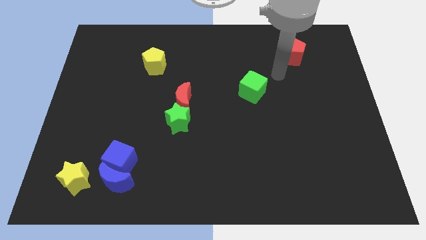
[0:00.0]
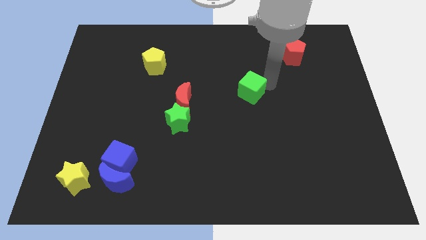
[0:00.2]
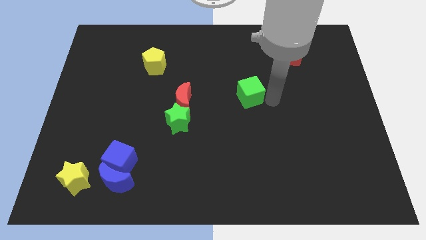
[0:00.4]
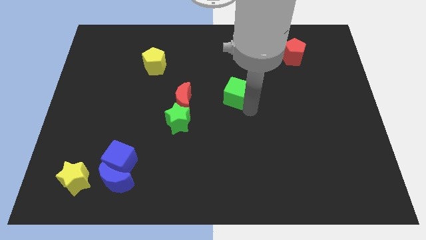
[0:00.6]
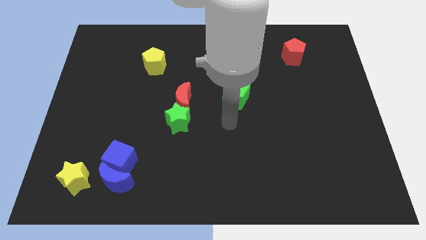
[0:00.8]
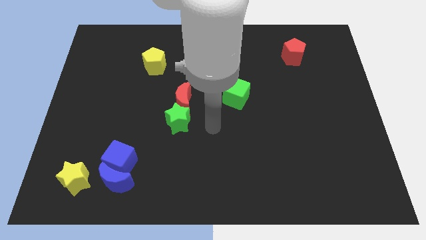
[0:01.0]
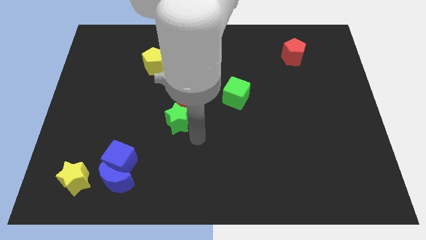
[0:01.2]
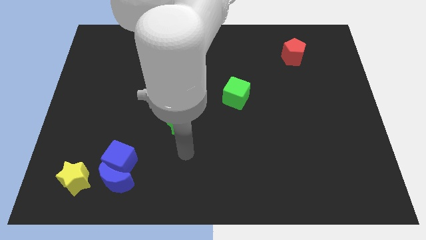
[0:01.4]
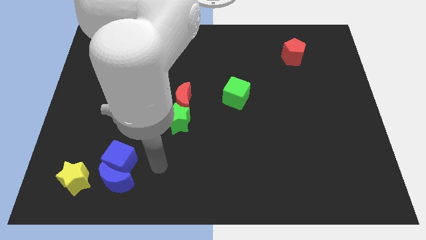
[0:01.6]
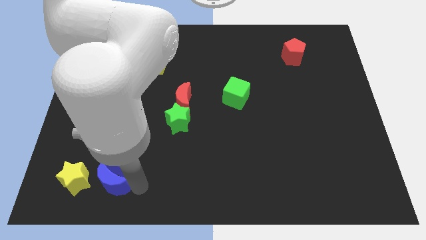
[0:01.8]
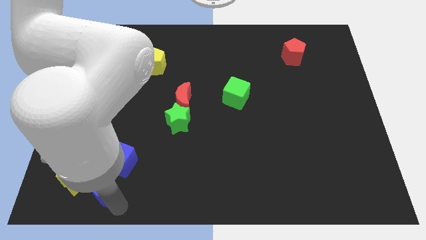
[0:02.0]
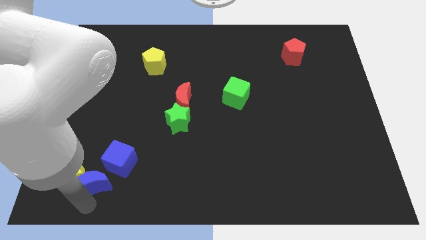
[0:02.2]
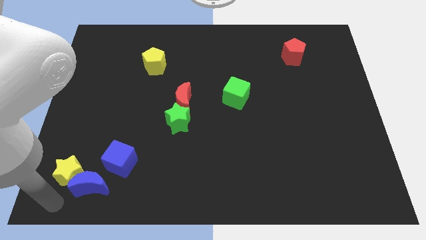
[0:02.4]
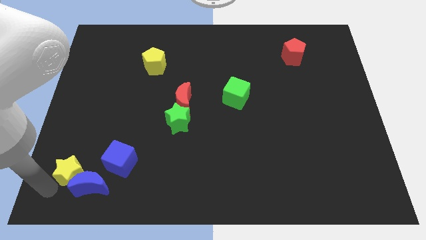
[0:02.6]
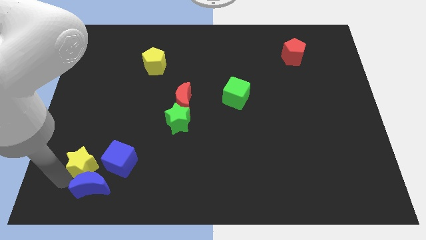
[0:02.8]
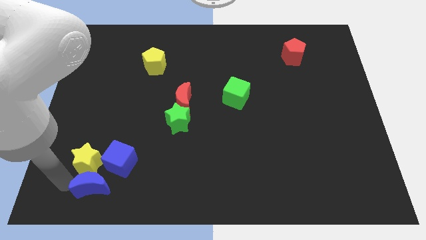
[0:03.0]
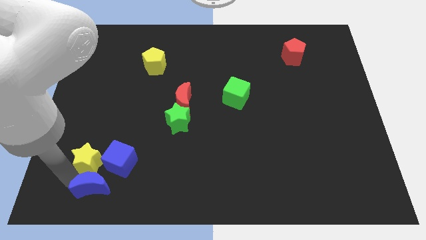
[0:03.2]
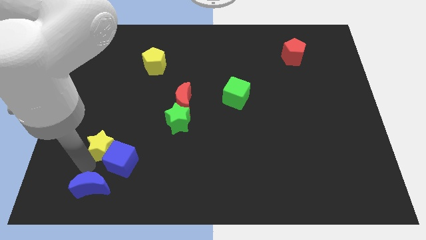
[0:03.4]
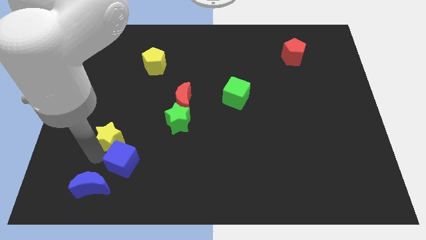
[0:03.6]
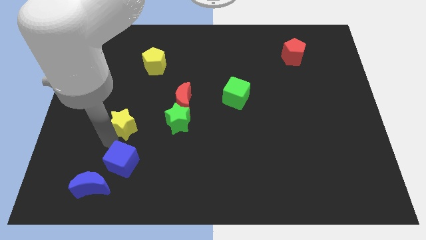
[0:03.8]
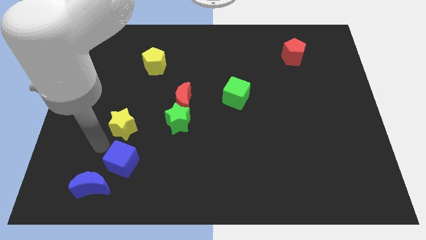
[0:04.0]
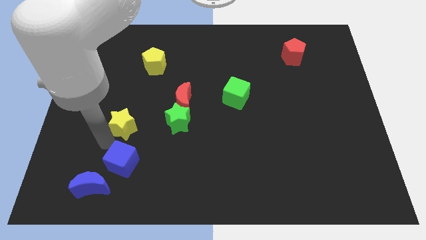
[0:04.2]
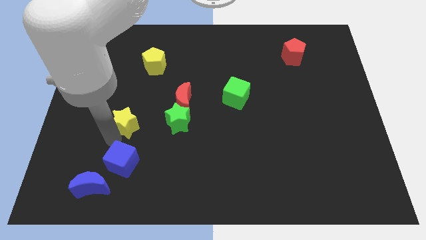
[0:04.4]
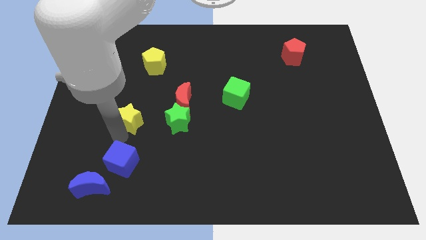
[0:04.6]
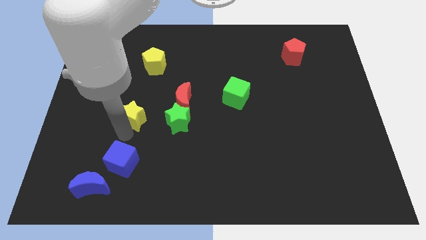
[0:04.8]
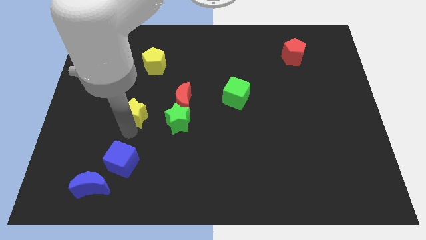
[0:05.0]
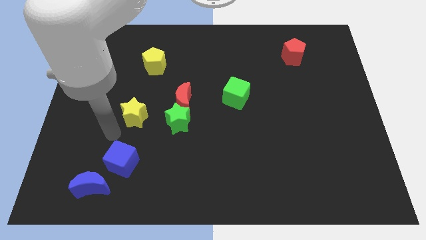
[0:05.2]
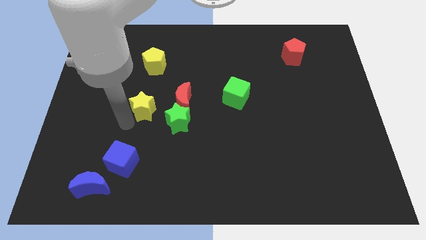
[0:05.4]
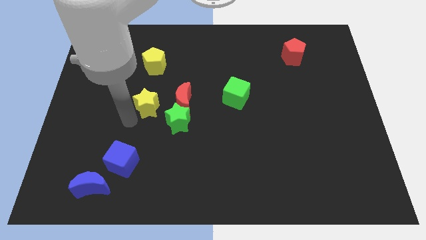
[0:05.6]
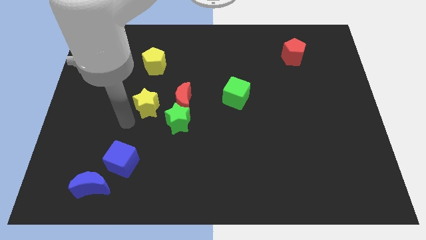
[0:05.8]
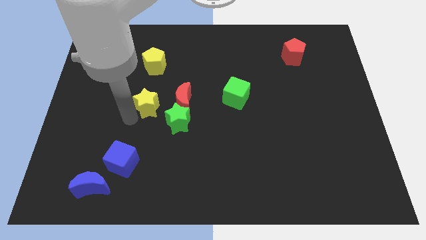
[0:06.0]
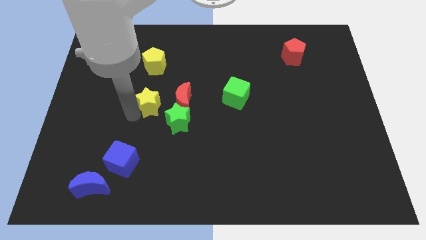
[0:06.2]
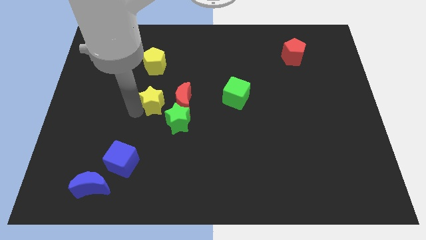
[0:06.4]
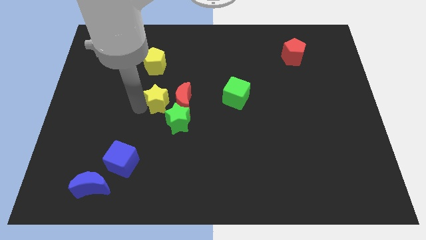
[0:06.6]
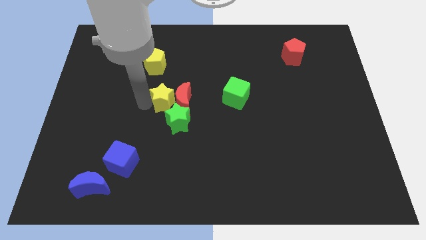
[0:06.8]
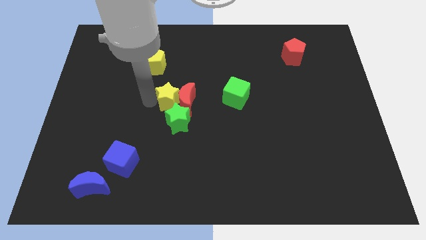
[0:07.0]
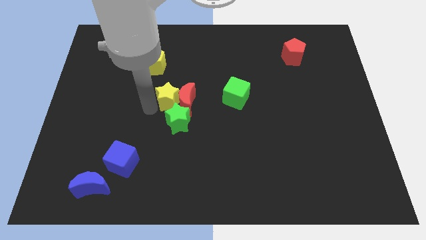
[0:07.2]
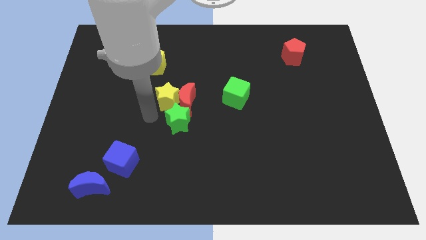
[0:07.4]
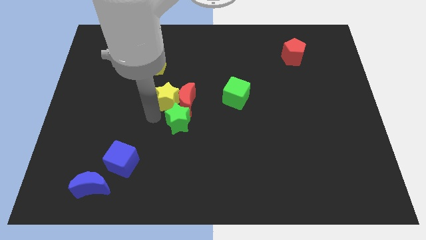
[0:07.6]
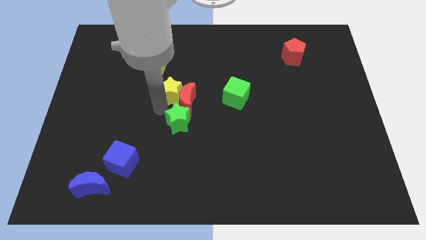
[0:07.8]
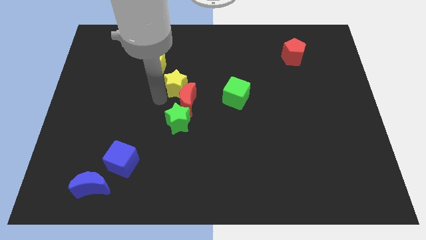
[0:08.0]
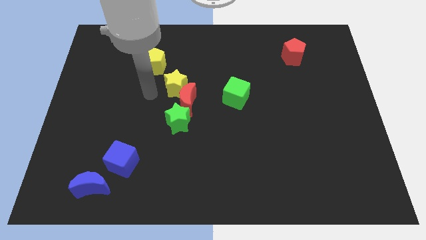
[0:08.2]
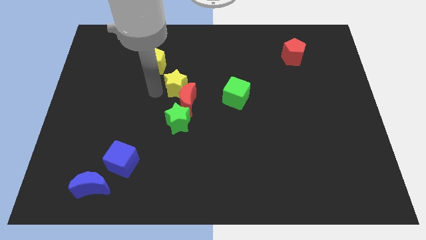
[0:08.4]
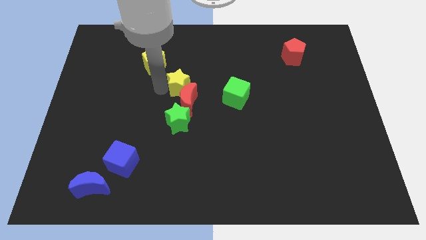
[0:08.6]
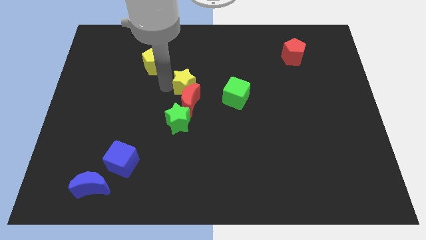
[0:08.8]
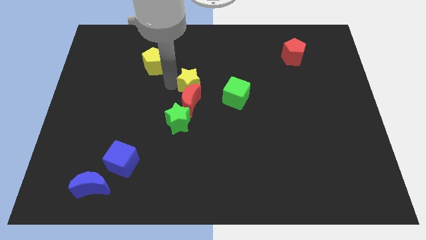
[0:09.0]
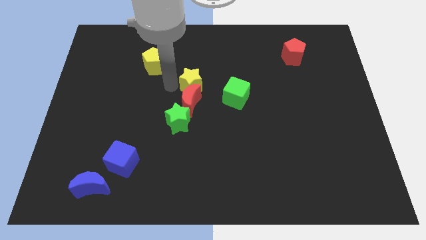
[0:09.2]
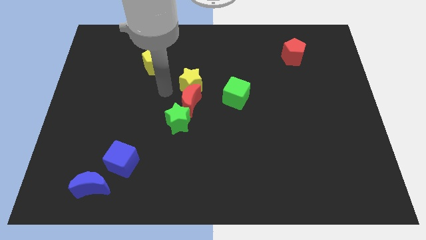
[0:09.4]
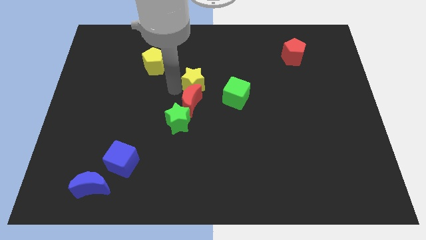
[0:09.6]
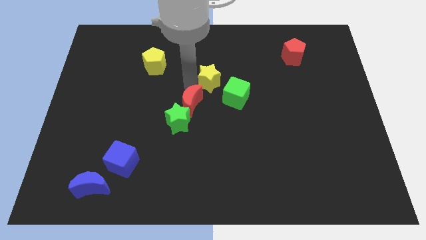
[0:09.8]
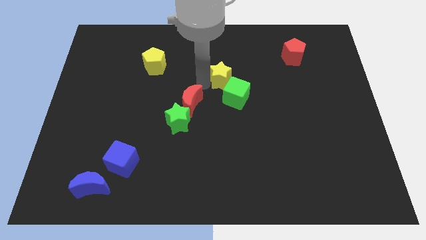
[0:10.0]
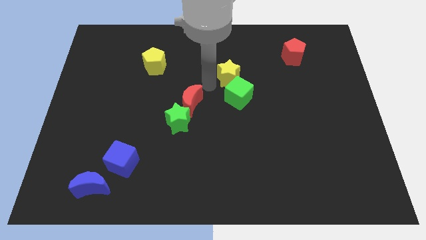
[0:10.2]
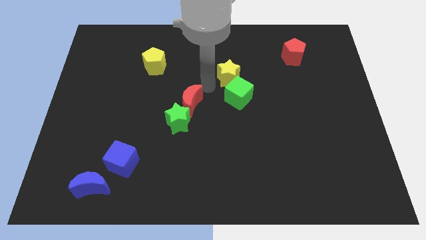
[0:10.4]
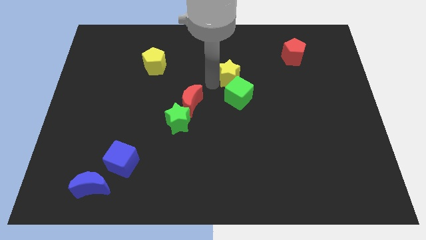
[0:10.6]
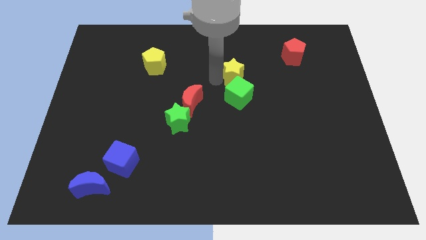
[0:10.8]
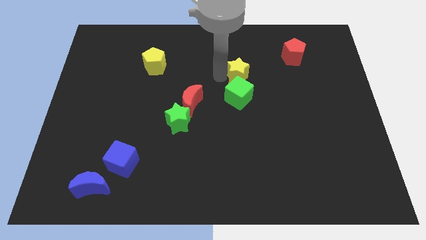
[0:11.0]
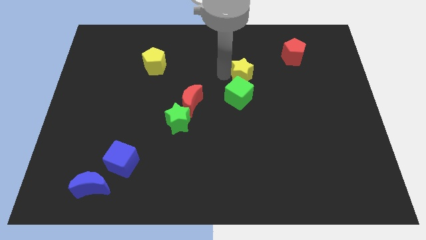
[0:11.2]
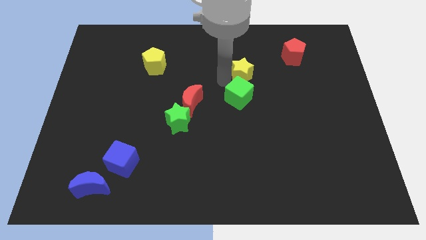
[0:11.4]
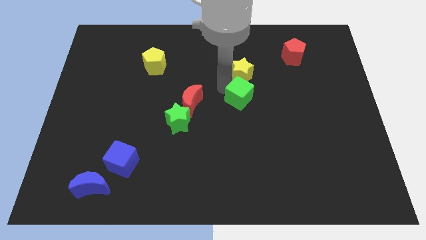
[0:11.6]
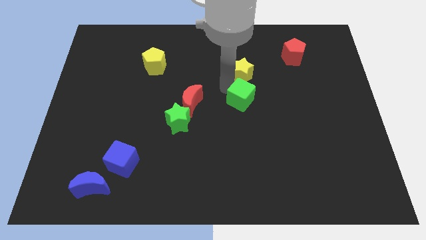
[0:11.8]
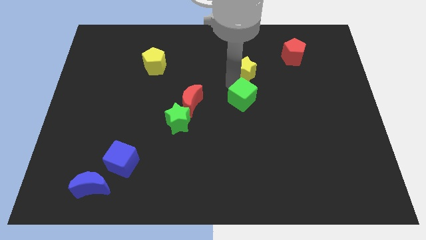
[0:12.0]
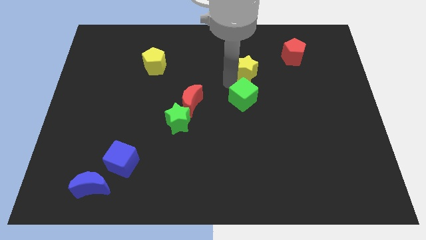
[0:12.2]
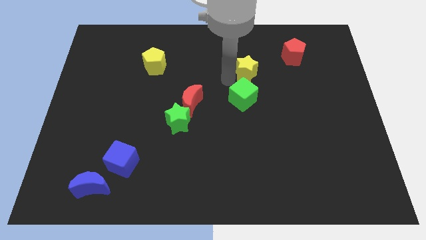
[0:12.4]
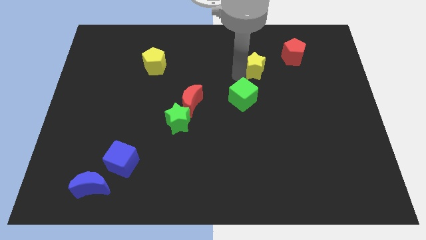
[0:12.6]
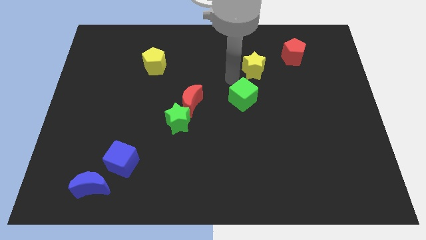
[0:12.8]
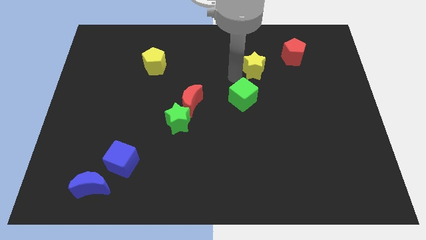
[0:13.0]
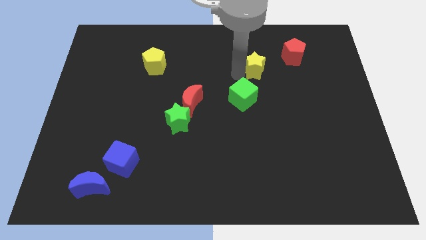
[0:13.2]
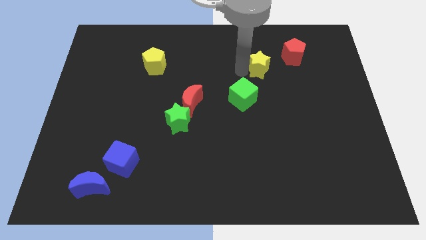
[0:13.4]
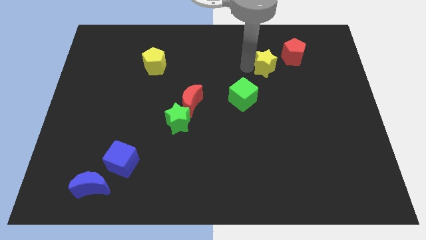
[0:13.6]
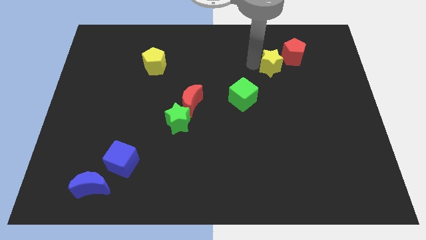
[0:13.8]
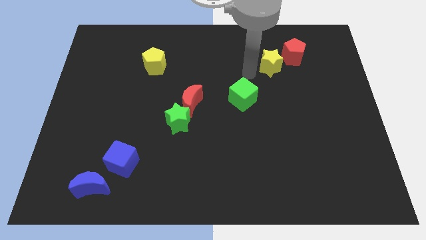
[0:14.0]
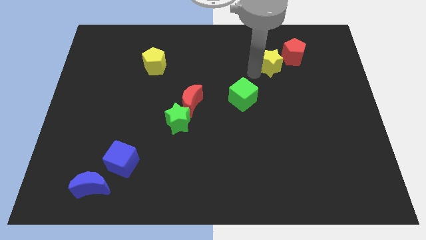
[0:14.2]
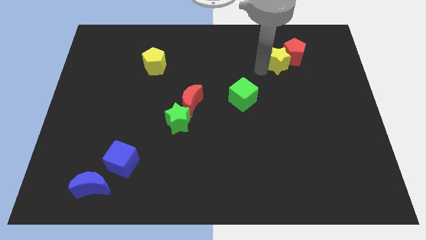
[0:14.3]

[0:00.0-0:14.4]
slide the yellow star close to the red pentagon

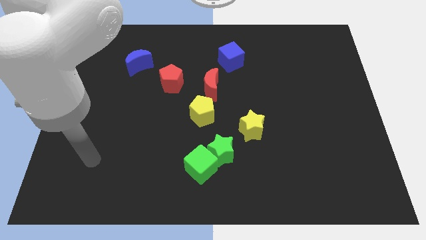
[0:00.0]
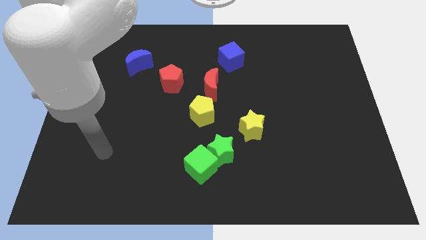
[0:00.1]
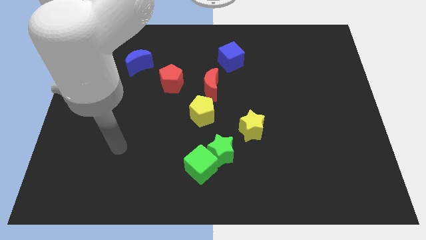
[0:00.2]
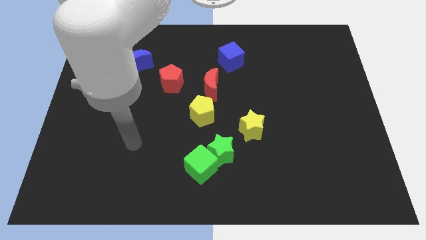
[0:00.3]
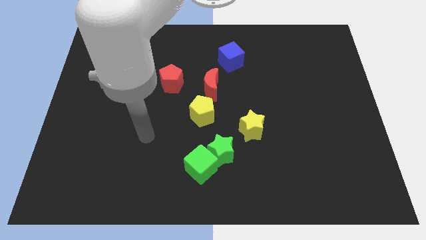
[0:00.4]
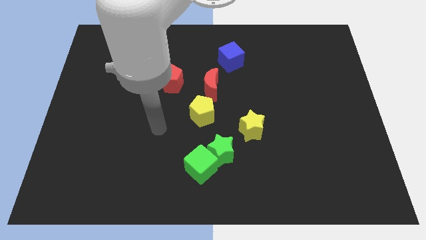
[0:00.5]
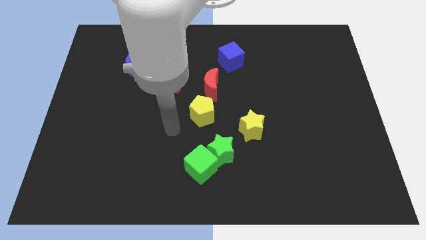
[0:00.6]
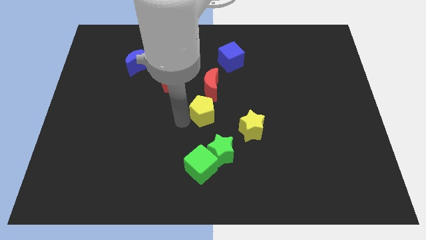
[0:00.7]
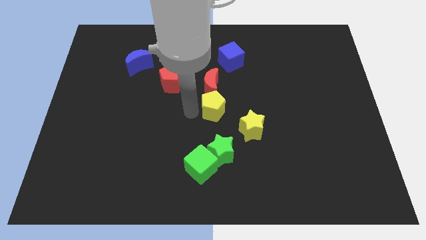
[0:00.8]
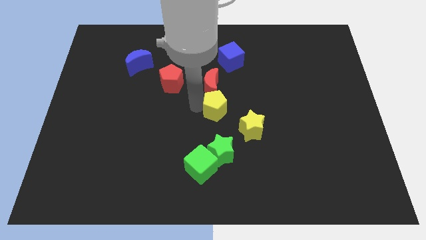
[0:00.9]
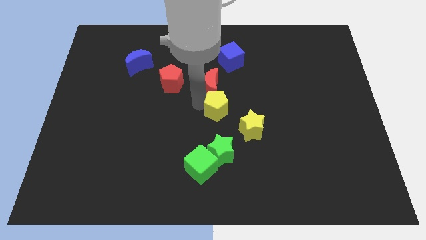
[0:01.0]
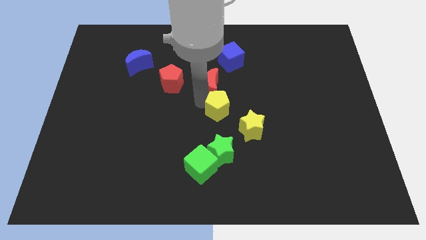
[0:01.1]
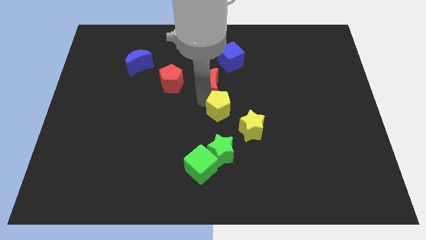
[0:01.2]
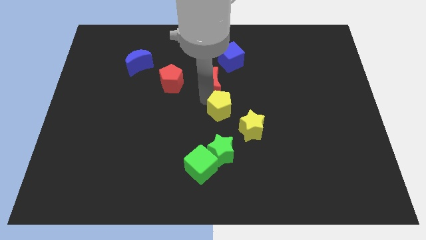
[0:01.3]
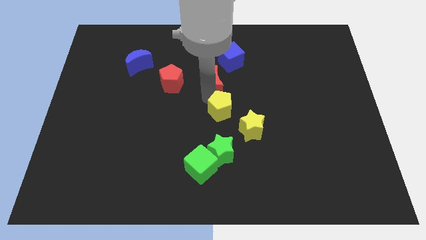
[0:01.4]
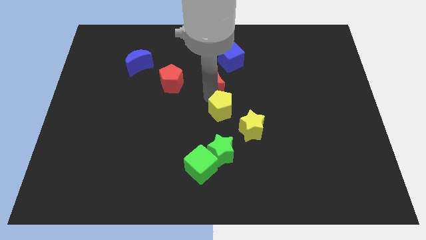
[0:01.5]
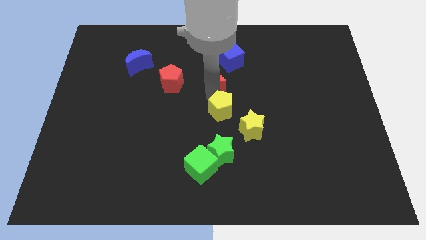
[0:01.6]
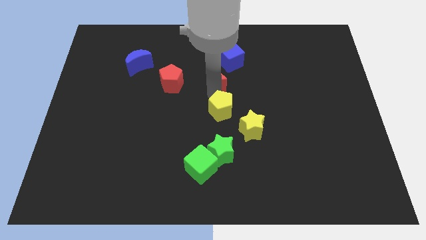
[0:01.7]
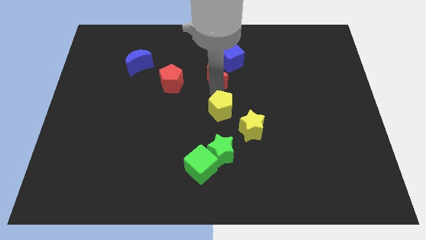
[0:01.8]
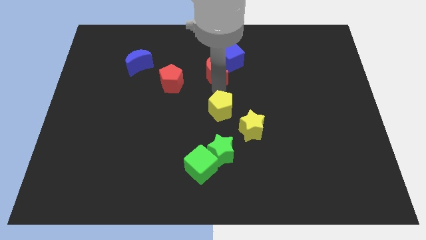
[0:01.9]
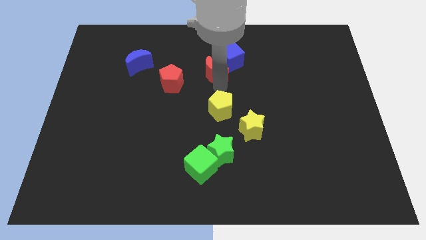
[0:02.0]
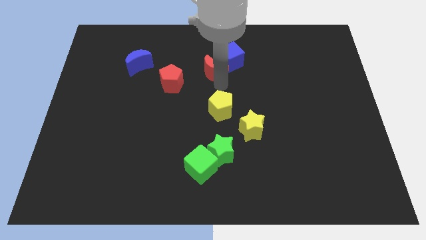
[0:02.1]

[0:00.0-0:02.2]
push the red moon close to the blue cube
